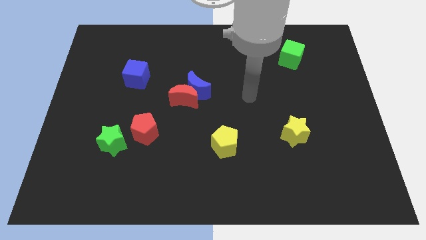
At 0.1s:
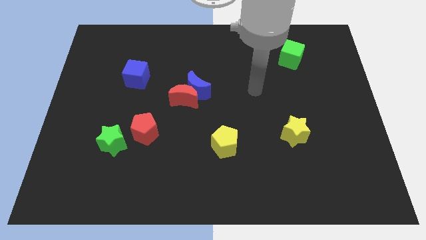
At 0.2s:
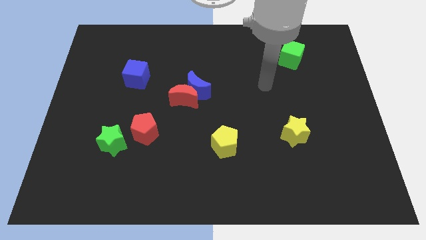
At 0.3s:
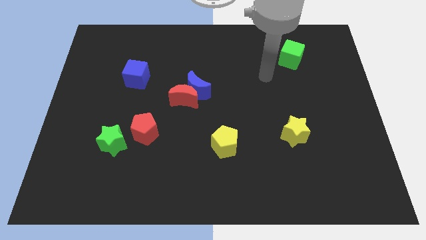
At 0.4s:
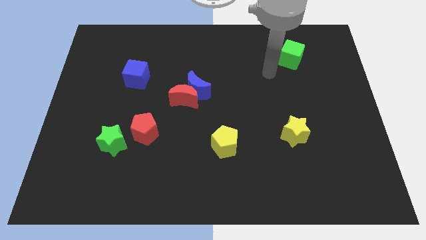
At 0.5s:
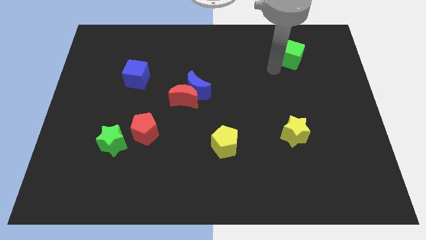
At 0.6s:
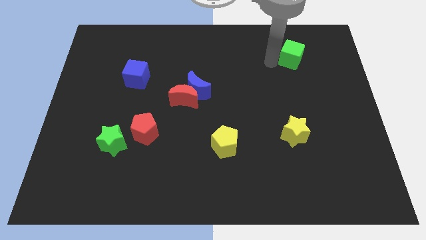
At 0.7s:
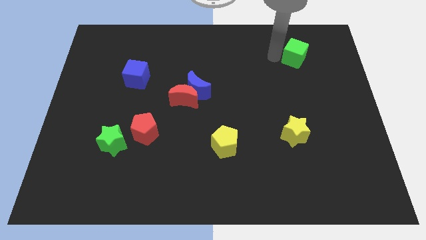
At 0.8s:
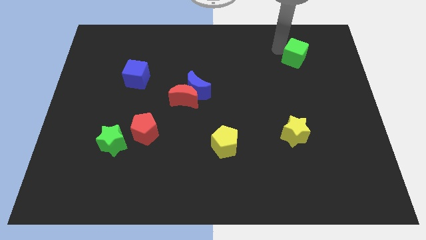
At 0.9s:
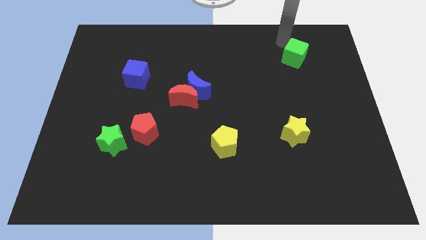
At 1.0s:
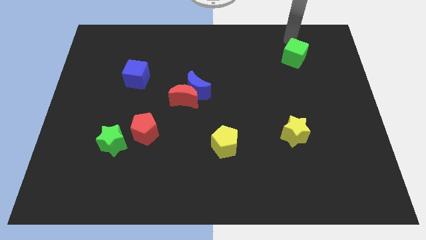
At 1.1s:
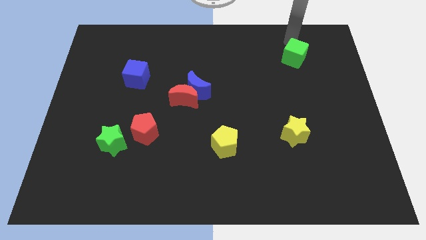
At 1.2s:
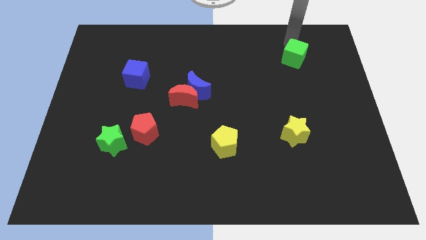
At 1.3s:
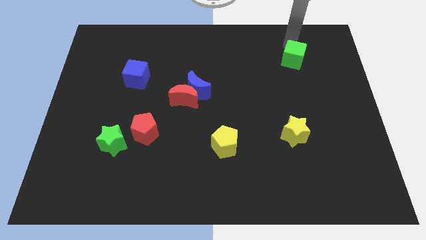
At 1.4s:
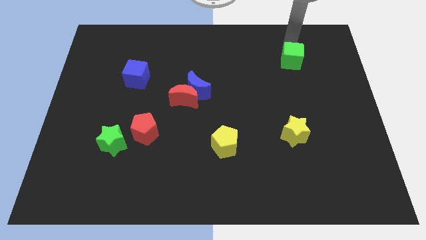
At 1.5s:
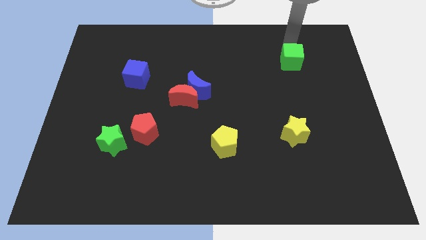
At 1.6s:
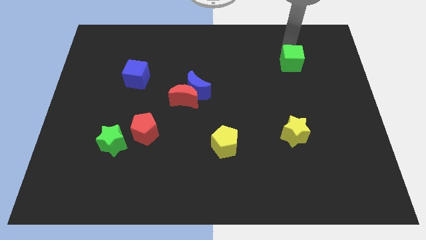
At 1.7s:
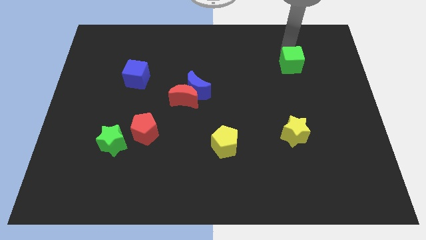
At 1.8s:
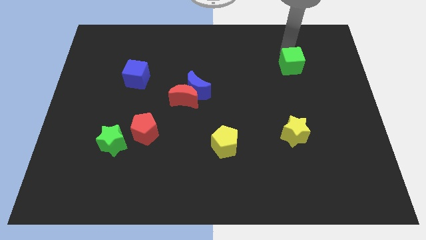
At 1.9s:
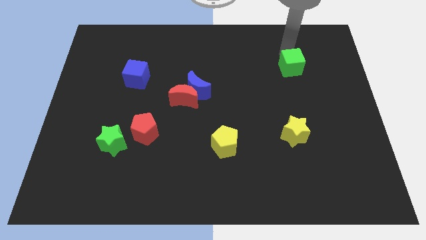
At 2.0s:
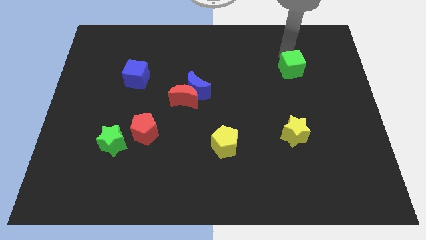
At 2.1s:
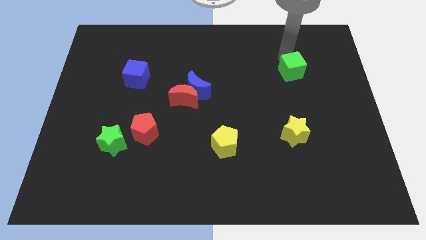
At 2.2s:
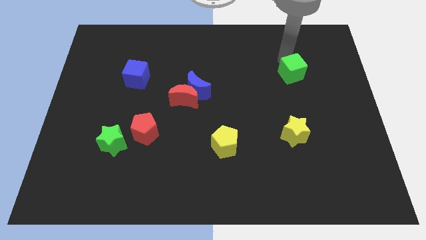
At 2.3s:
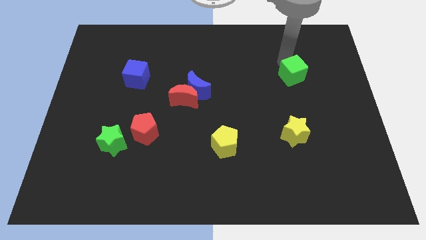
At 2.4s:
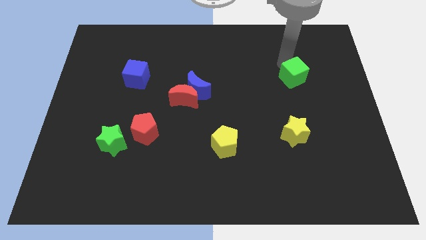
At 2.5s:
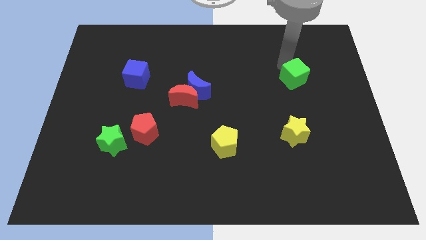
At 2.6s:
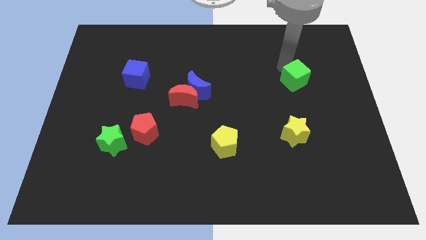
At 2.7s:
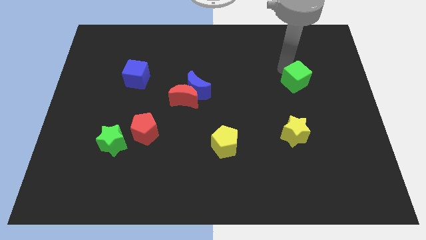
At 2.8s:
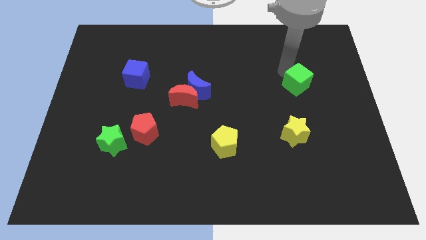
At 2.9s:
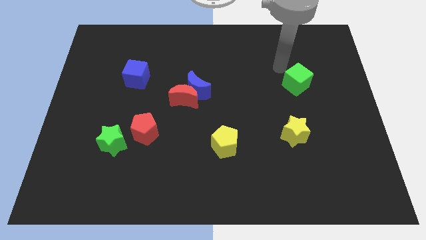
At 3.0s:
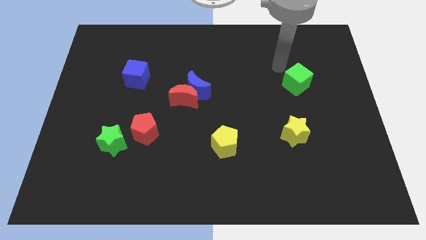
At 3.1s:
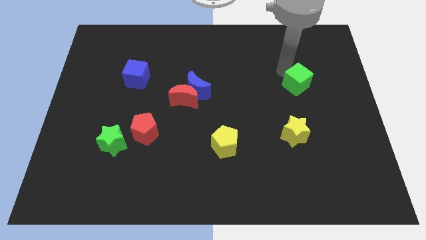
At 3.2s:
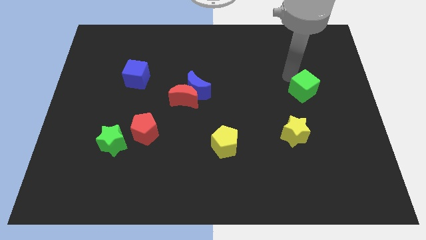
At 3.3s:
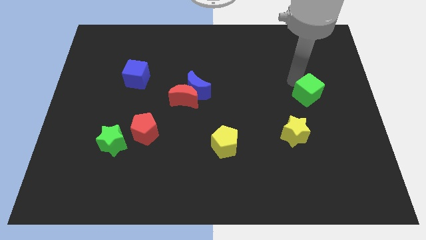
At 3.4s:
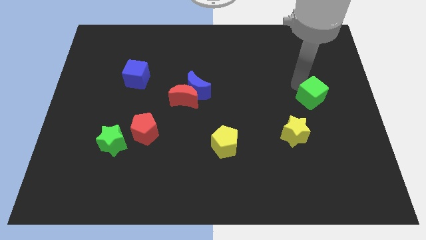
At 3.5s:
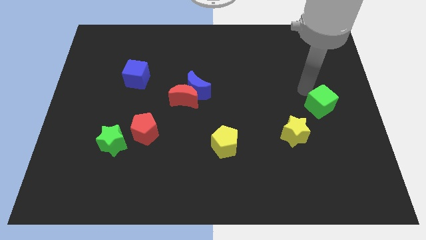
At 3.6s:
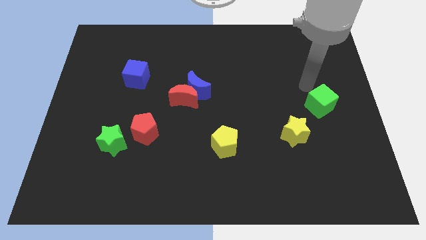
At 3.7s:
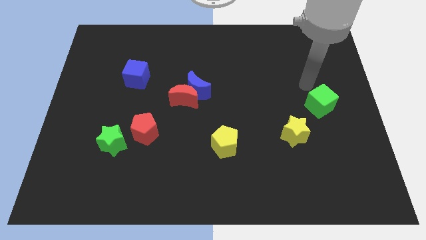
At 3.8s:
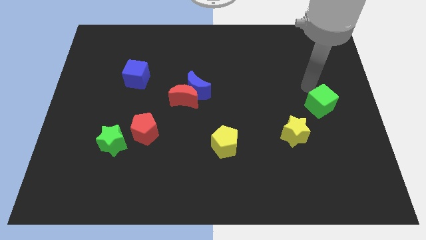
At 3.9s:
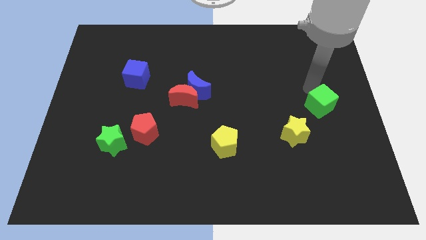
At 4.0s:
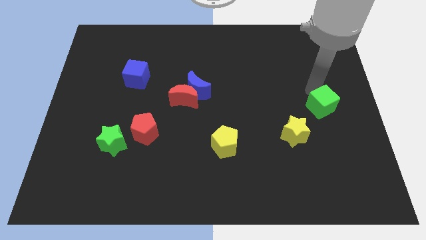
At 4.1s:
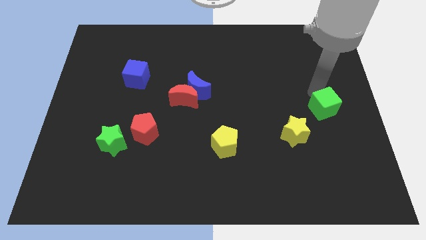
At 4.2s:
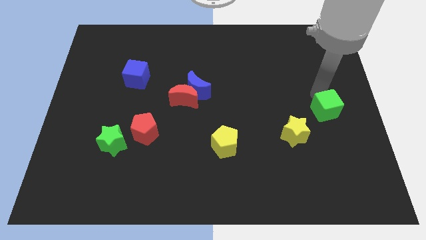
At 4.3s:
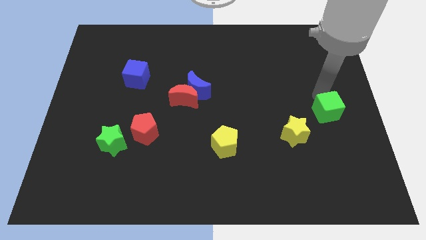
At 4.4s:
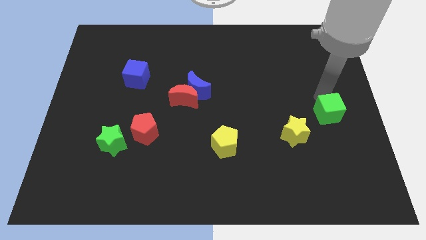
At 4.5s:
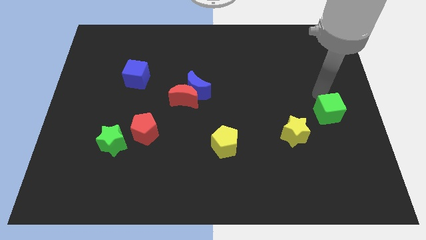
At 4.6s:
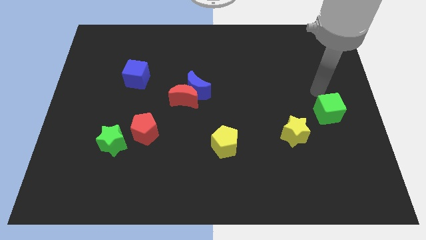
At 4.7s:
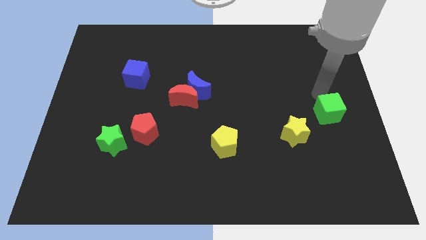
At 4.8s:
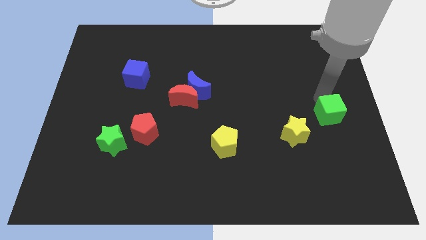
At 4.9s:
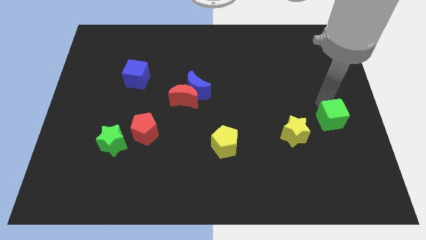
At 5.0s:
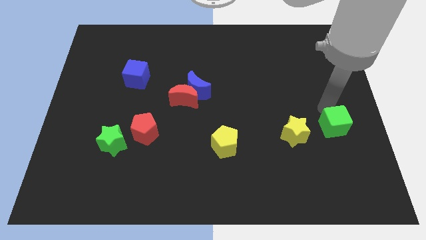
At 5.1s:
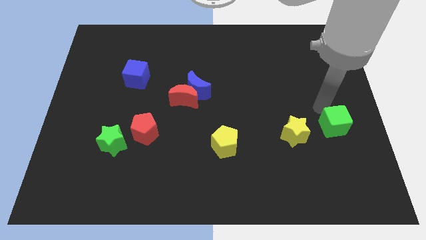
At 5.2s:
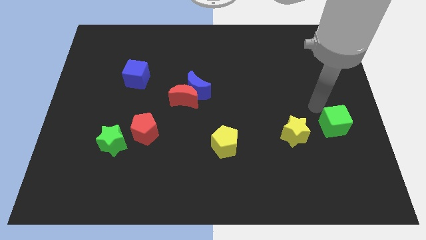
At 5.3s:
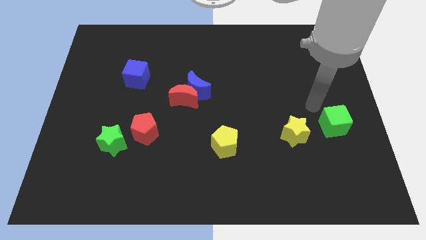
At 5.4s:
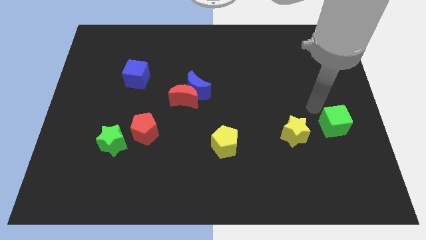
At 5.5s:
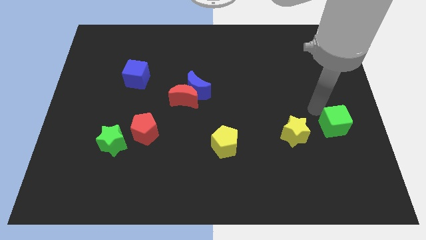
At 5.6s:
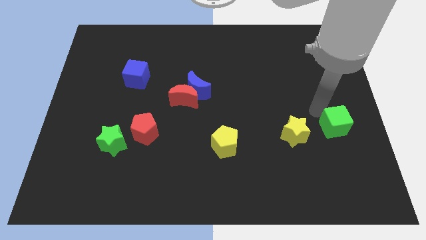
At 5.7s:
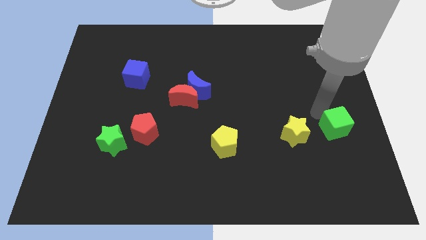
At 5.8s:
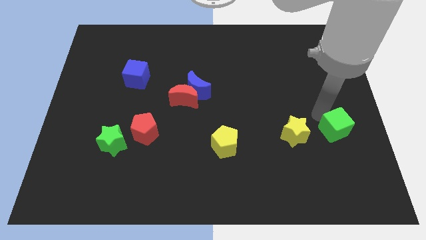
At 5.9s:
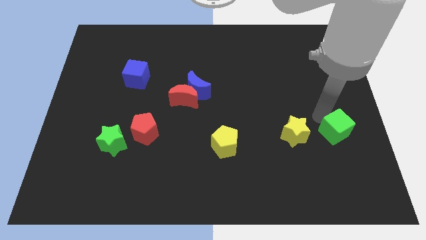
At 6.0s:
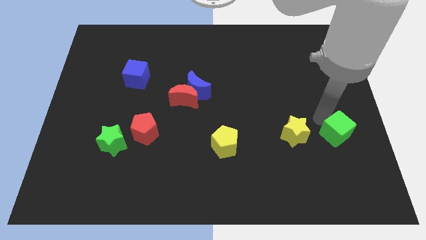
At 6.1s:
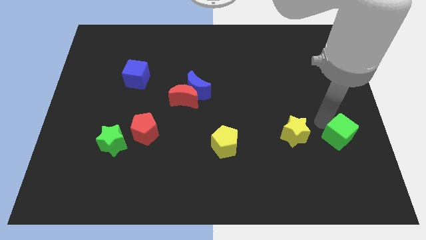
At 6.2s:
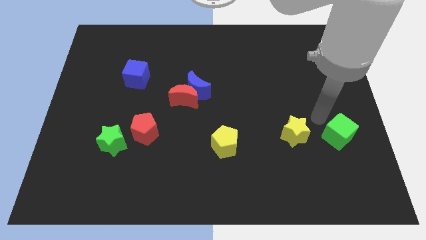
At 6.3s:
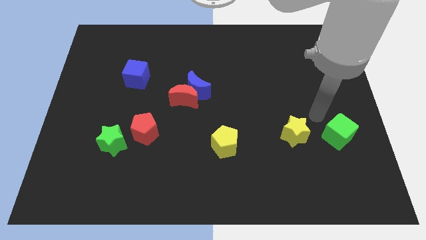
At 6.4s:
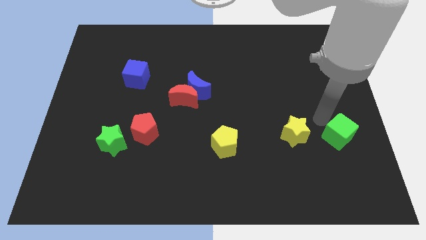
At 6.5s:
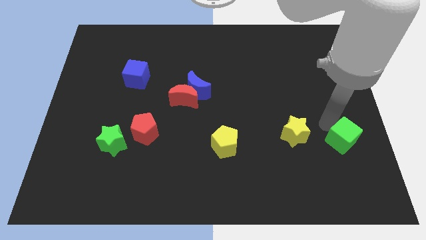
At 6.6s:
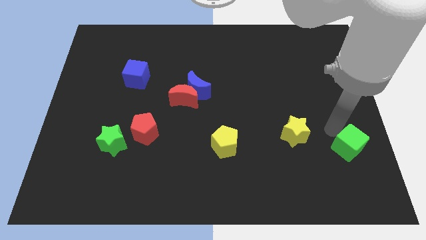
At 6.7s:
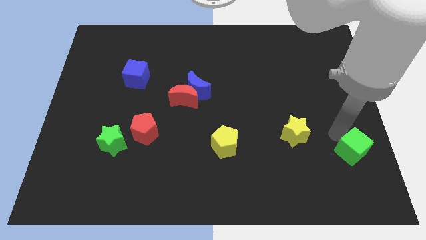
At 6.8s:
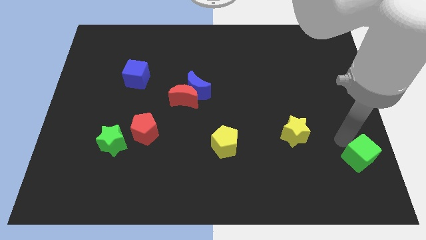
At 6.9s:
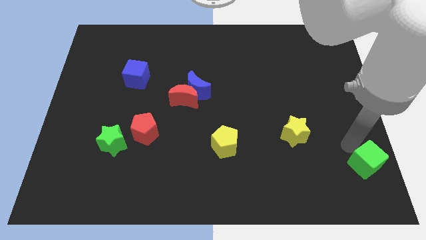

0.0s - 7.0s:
slide the green cube to the bottom right of the board

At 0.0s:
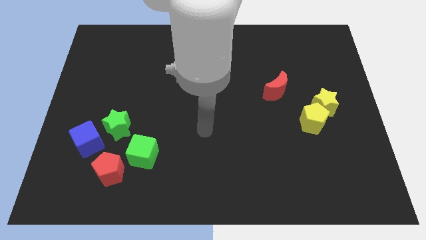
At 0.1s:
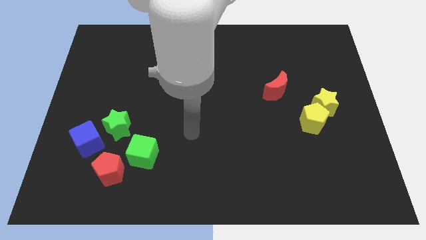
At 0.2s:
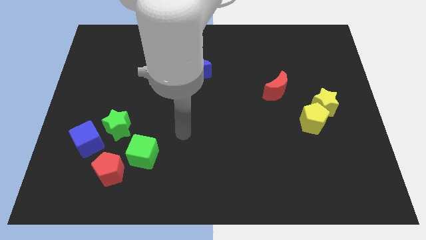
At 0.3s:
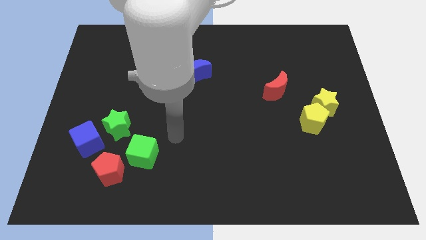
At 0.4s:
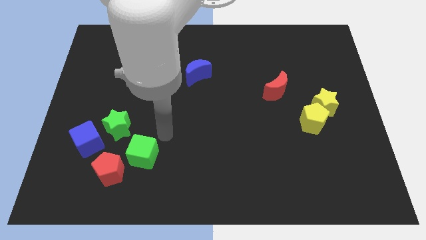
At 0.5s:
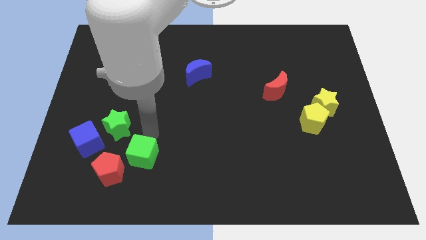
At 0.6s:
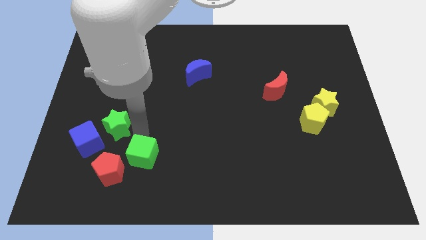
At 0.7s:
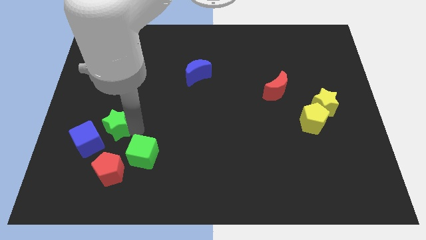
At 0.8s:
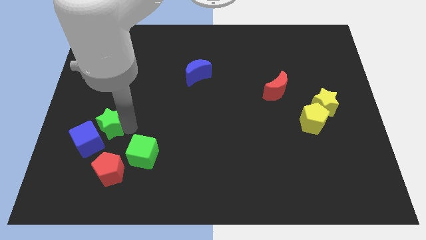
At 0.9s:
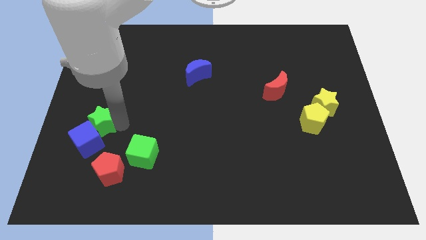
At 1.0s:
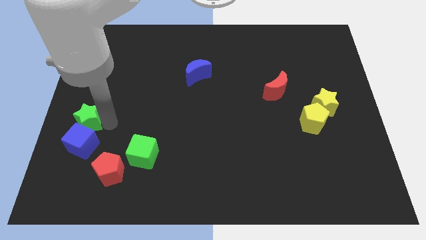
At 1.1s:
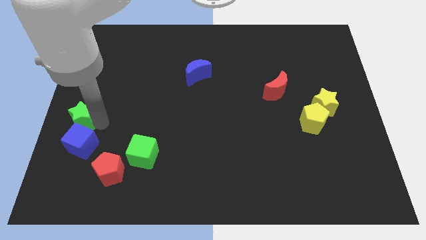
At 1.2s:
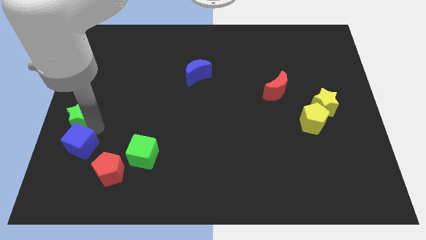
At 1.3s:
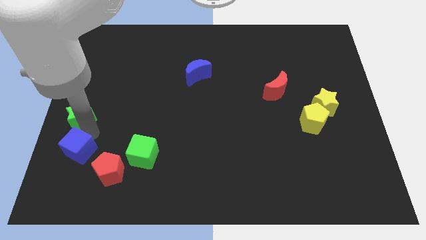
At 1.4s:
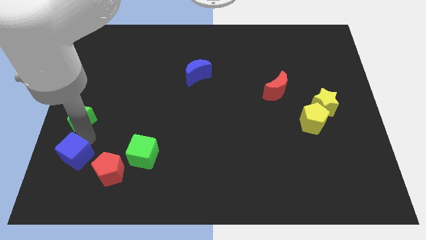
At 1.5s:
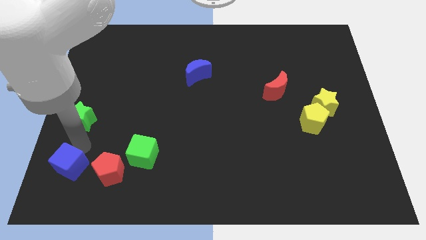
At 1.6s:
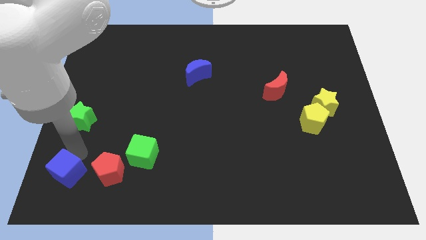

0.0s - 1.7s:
slide the blue cube to the bottom left corner
